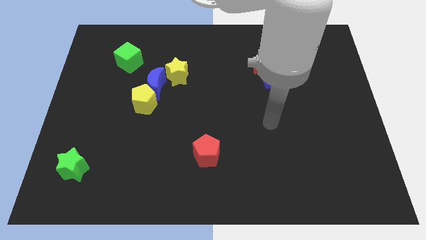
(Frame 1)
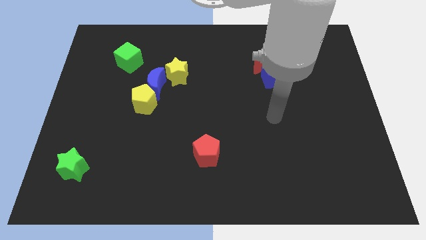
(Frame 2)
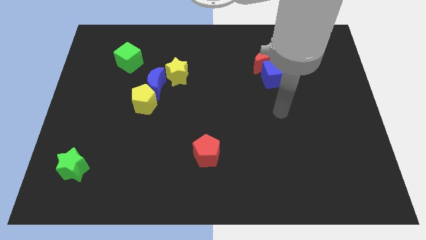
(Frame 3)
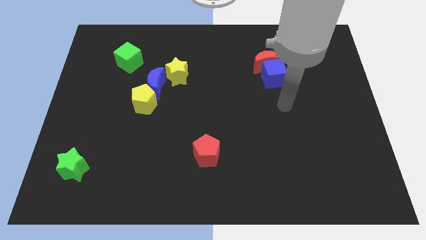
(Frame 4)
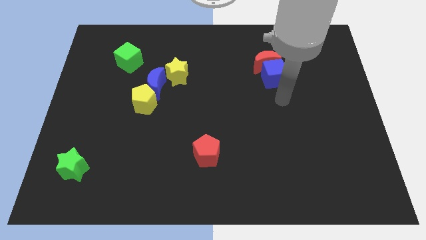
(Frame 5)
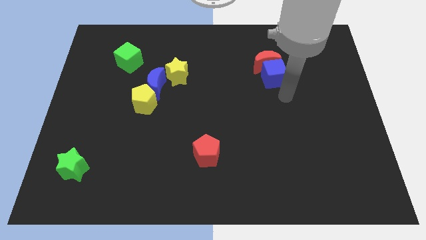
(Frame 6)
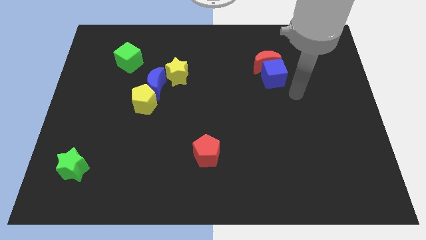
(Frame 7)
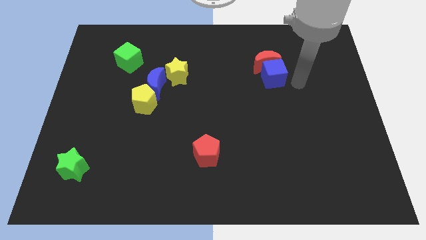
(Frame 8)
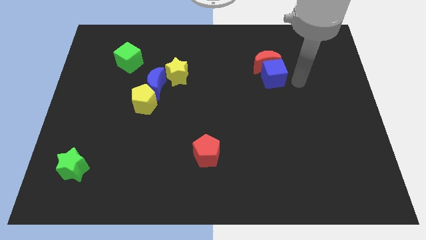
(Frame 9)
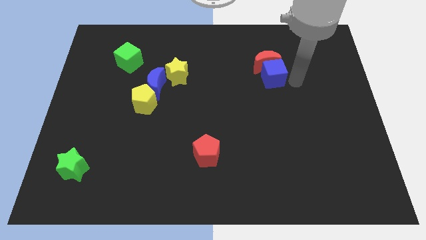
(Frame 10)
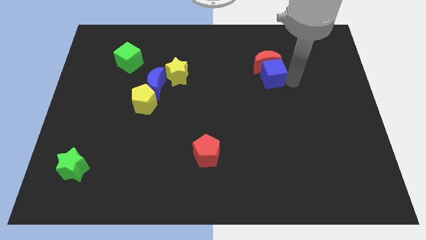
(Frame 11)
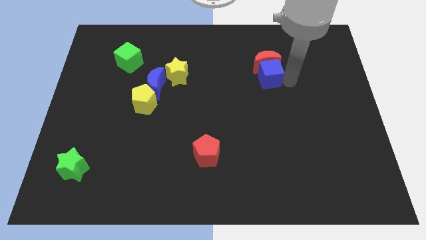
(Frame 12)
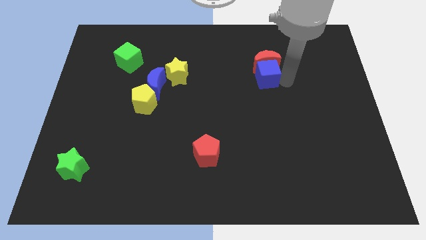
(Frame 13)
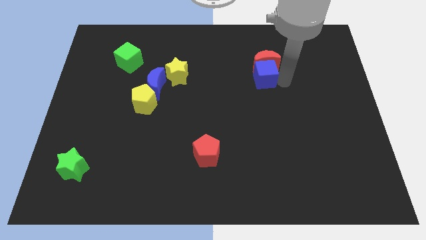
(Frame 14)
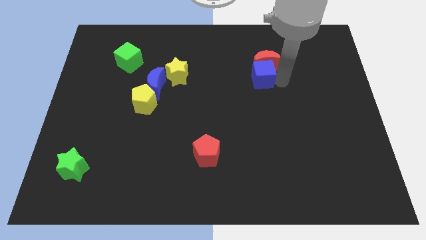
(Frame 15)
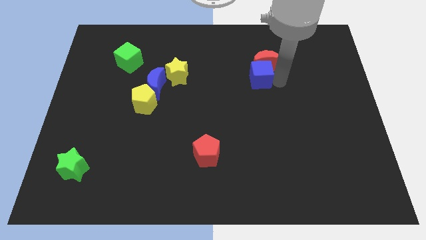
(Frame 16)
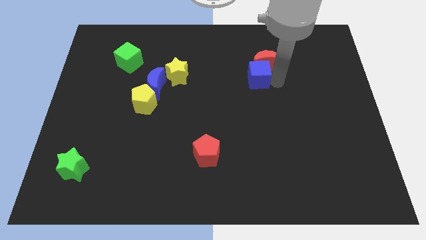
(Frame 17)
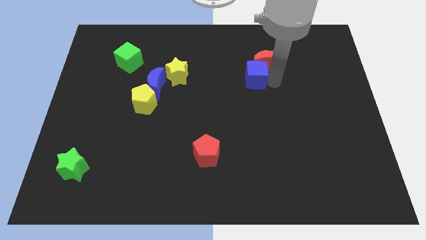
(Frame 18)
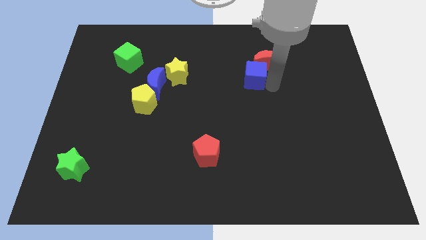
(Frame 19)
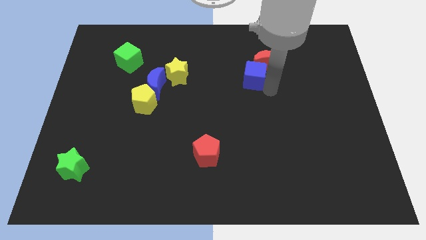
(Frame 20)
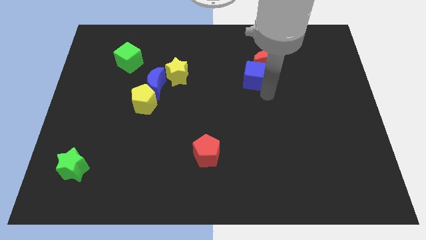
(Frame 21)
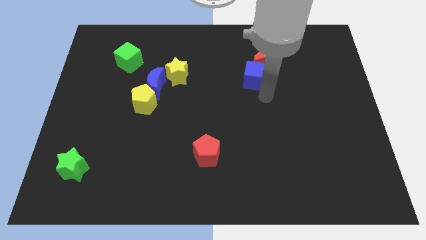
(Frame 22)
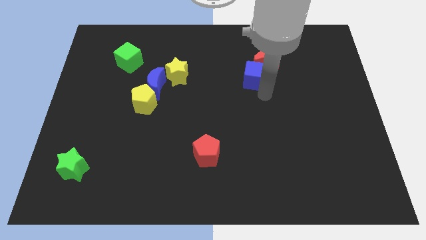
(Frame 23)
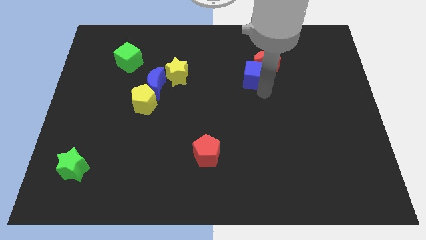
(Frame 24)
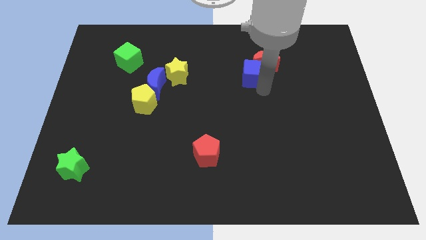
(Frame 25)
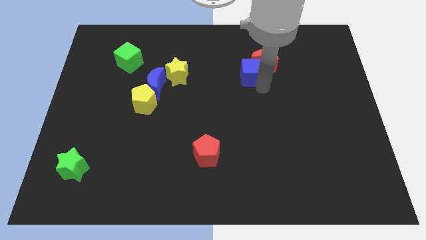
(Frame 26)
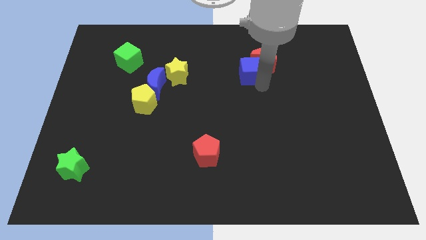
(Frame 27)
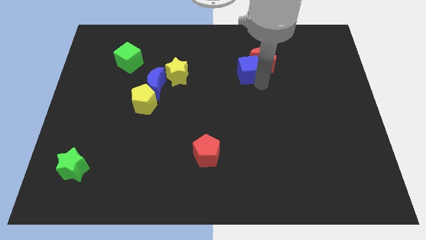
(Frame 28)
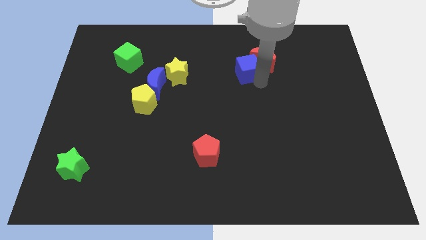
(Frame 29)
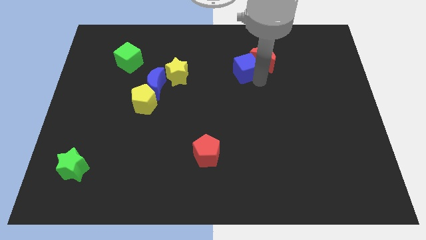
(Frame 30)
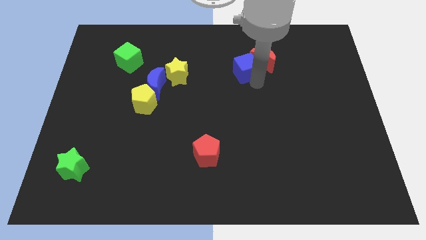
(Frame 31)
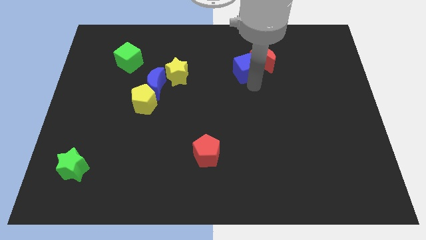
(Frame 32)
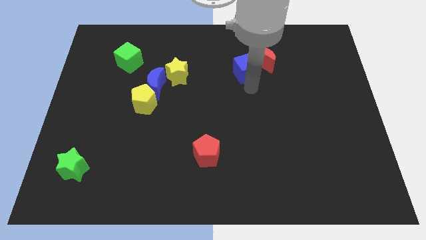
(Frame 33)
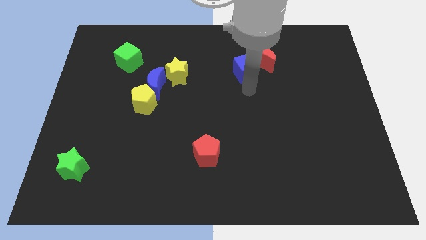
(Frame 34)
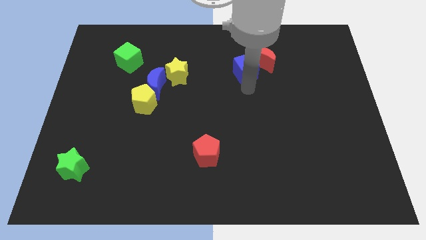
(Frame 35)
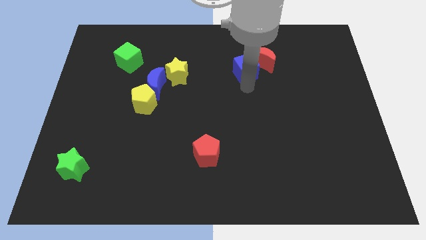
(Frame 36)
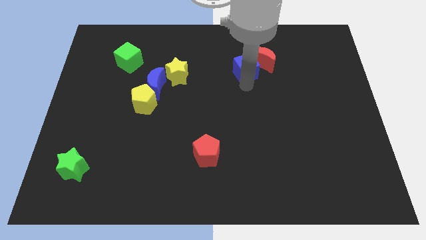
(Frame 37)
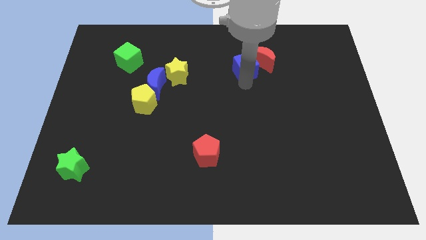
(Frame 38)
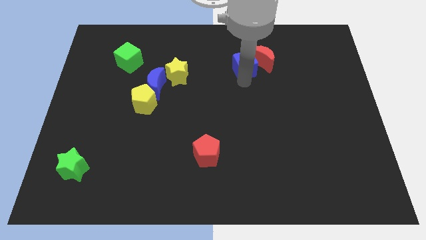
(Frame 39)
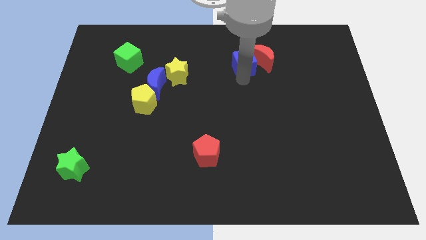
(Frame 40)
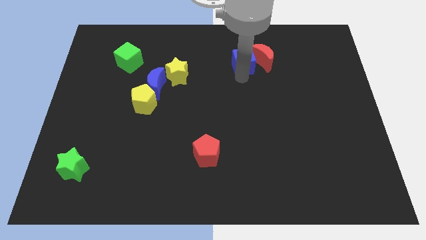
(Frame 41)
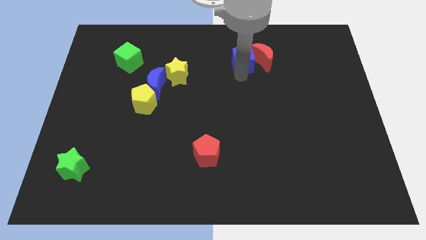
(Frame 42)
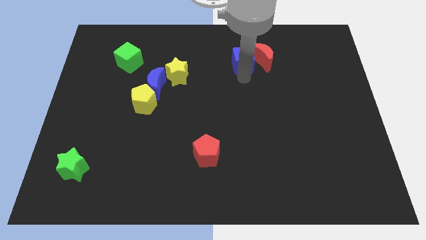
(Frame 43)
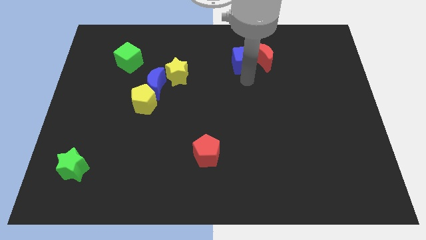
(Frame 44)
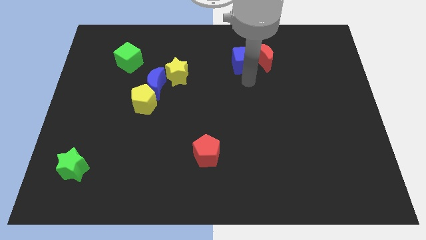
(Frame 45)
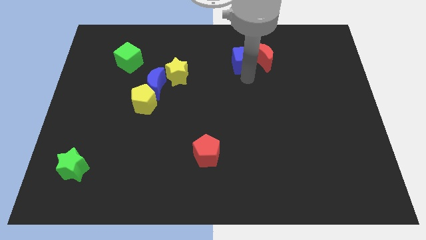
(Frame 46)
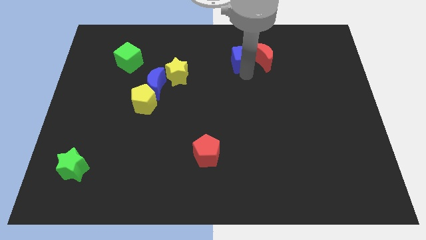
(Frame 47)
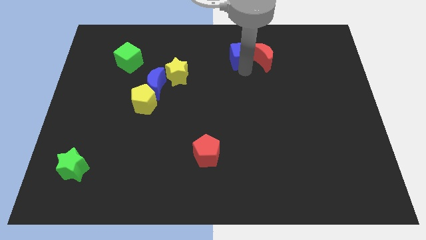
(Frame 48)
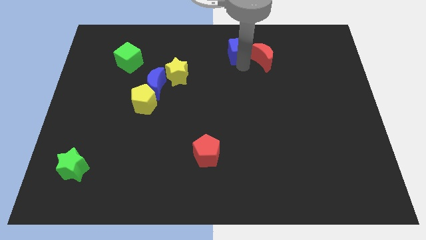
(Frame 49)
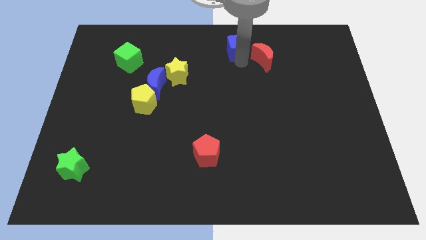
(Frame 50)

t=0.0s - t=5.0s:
put the blue cube to the towards your base

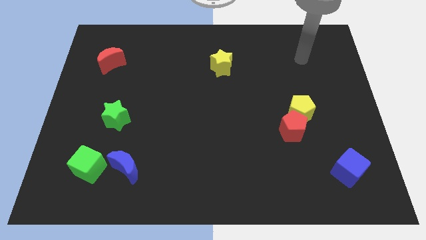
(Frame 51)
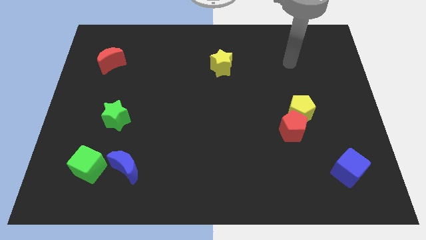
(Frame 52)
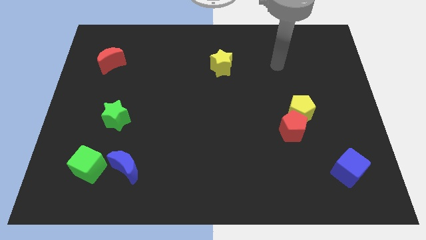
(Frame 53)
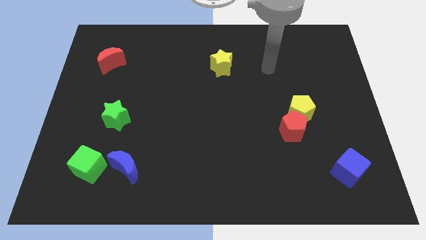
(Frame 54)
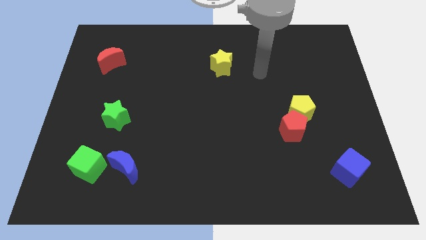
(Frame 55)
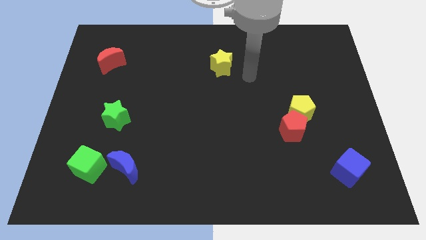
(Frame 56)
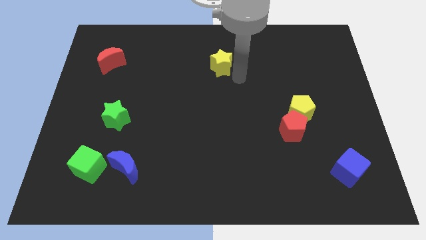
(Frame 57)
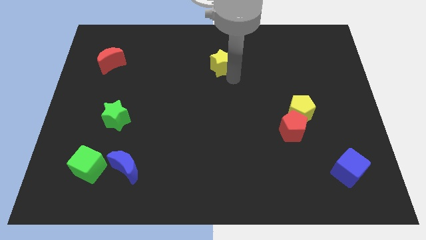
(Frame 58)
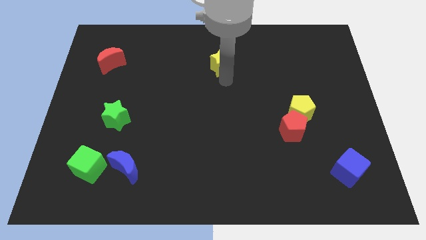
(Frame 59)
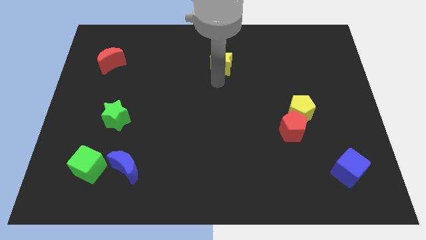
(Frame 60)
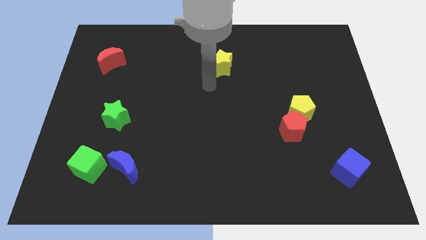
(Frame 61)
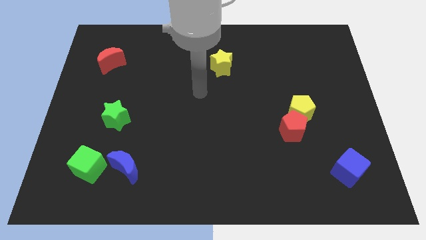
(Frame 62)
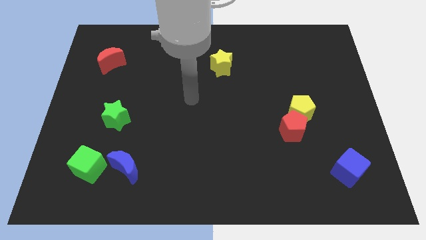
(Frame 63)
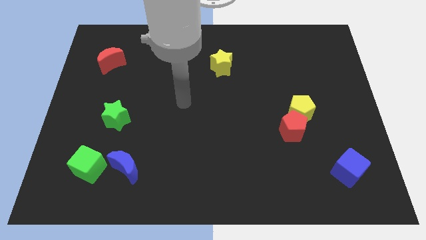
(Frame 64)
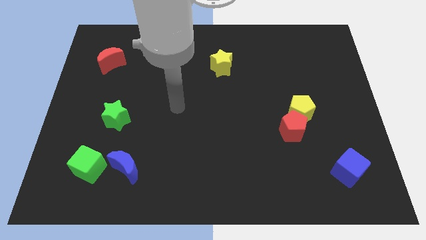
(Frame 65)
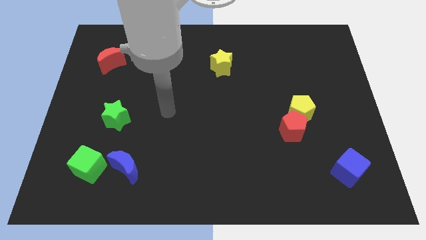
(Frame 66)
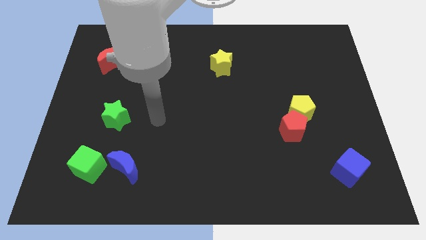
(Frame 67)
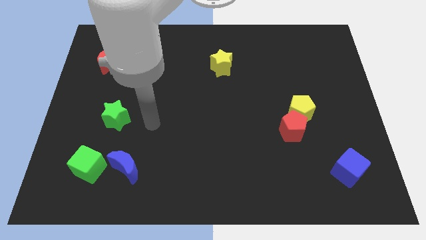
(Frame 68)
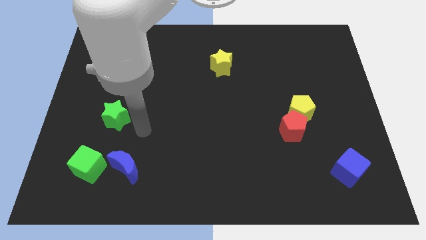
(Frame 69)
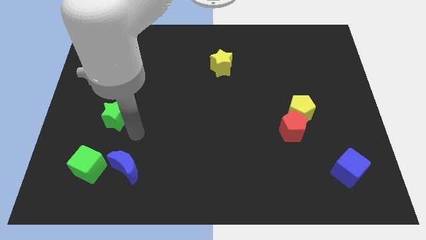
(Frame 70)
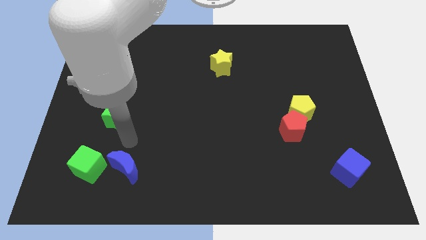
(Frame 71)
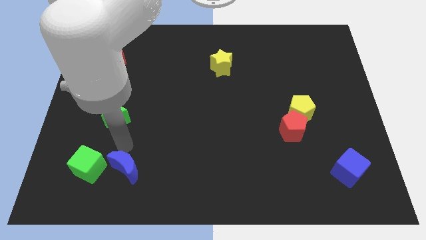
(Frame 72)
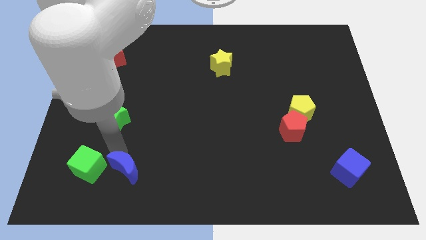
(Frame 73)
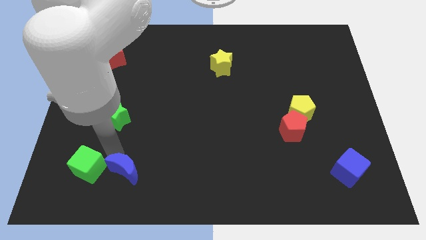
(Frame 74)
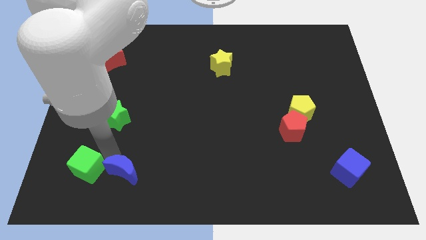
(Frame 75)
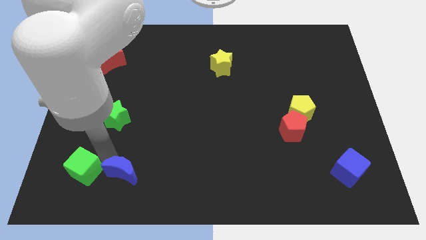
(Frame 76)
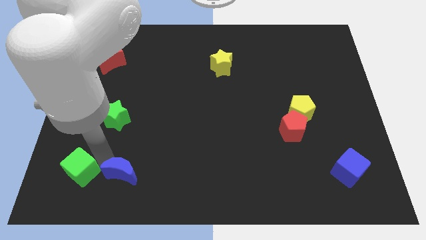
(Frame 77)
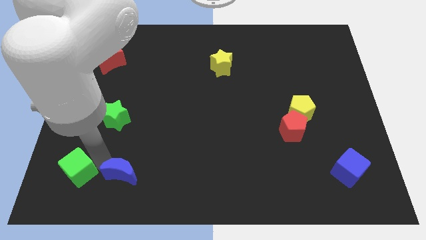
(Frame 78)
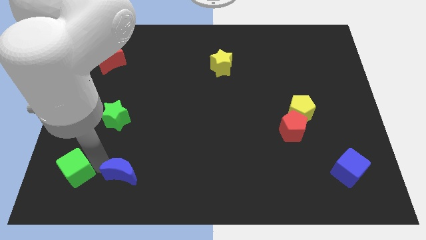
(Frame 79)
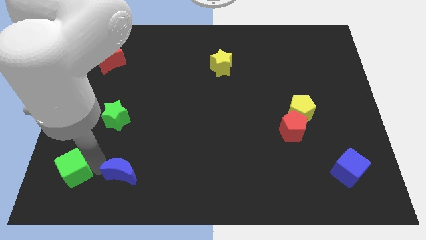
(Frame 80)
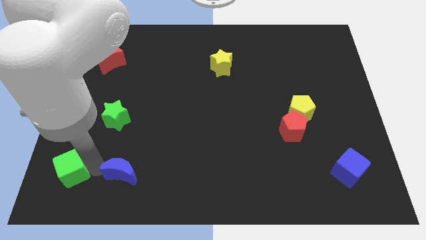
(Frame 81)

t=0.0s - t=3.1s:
move the green cube to the lower left corner
